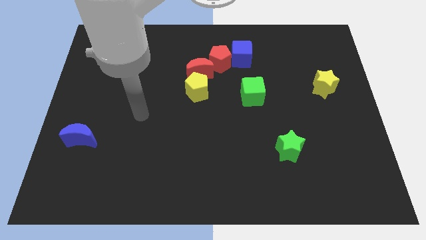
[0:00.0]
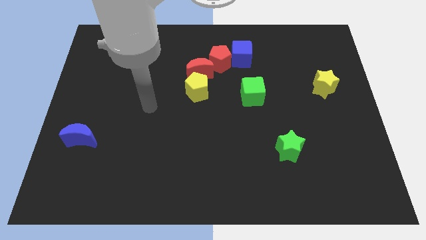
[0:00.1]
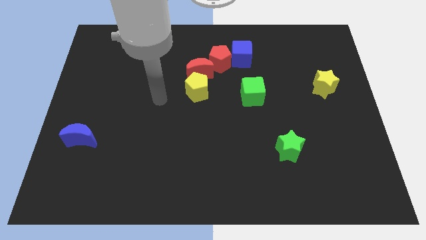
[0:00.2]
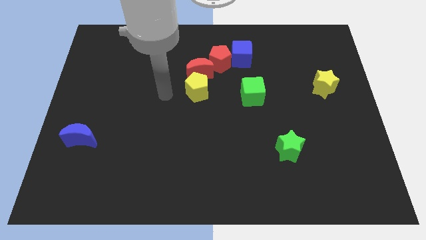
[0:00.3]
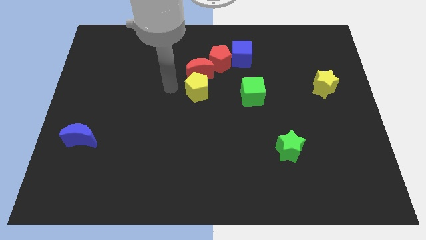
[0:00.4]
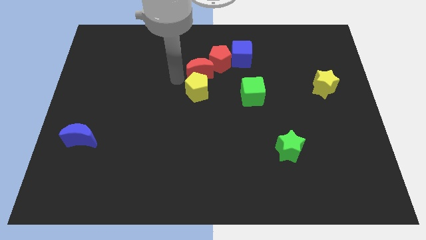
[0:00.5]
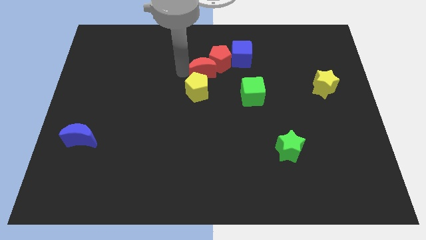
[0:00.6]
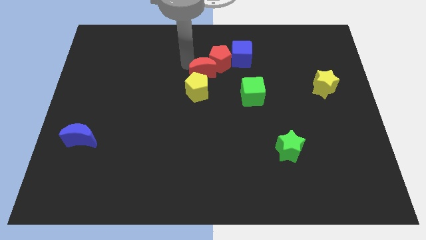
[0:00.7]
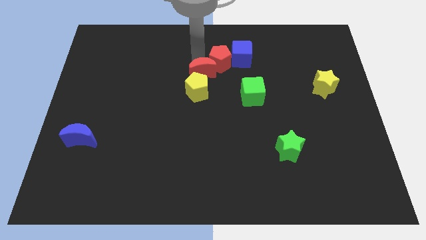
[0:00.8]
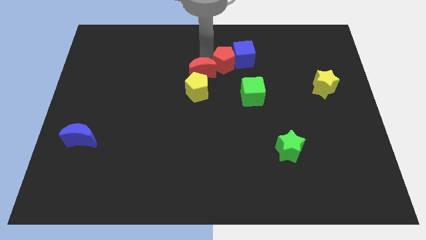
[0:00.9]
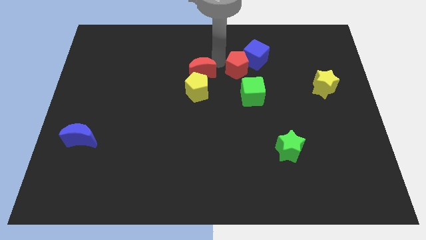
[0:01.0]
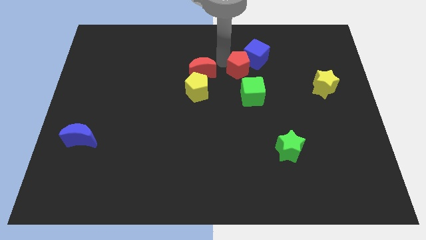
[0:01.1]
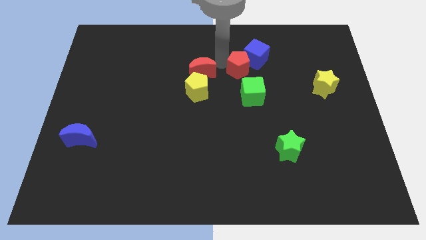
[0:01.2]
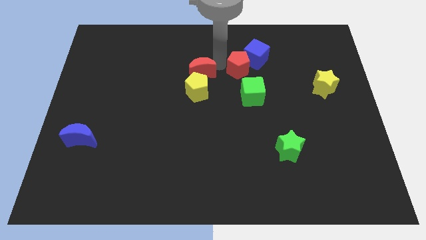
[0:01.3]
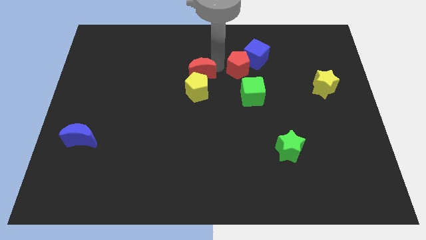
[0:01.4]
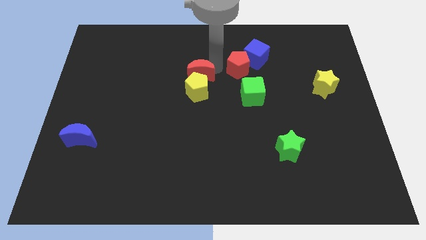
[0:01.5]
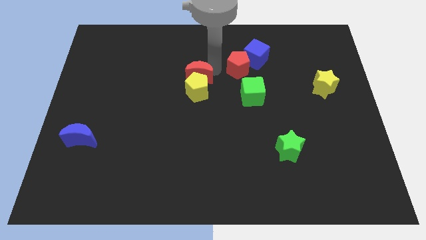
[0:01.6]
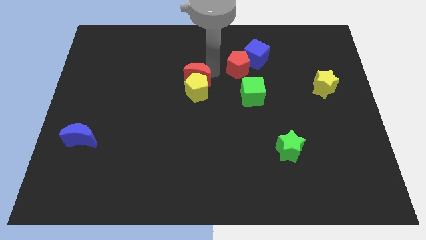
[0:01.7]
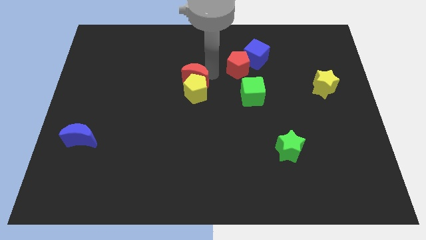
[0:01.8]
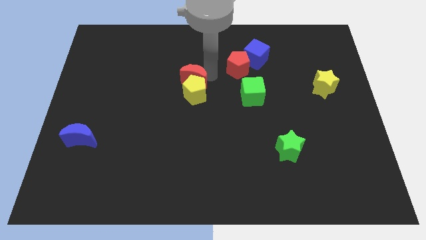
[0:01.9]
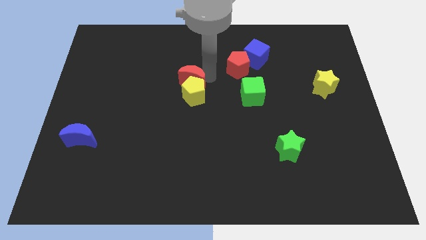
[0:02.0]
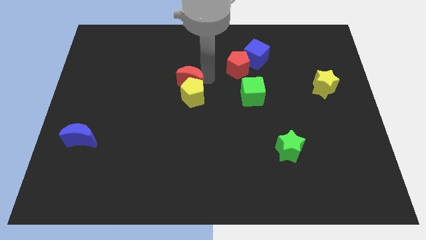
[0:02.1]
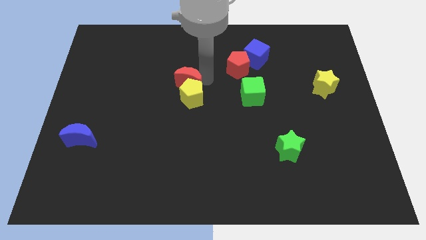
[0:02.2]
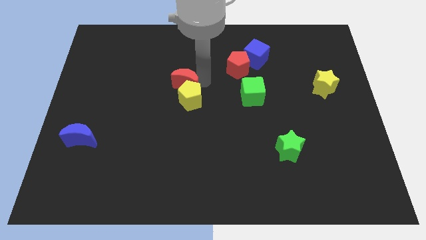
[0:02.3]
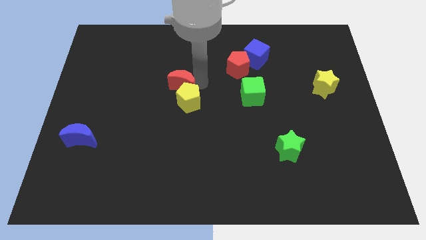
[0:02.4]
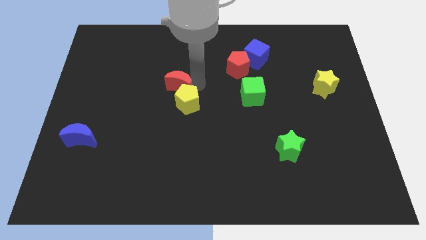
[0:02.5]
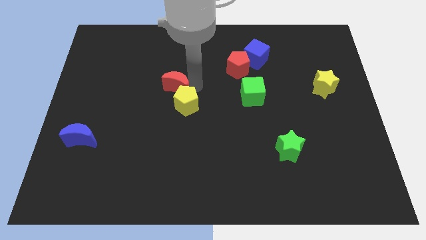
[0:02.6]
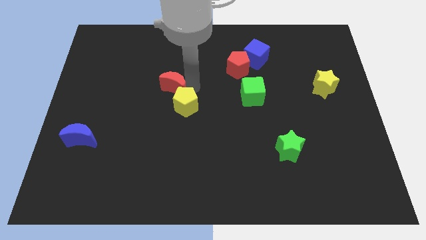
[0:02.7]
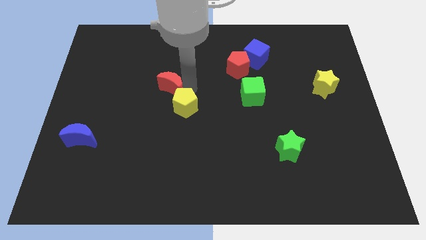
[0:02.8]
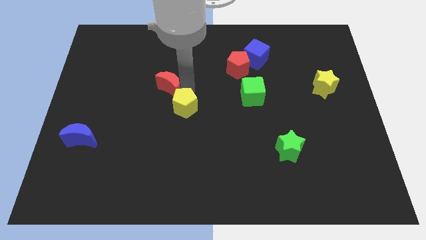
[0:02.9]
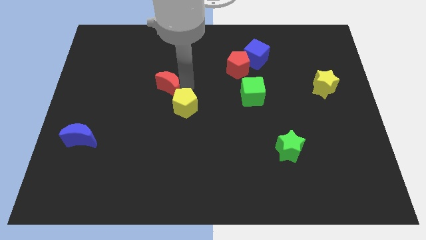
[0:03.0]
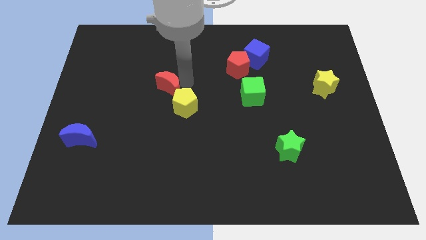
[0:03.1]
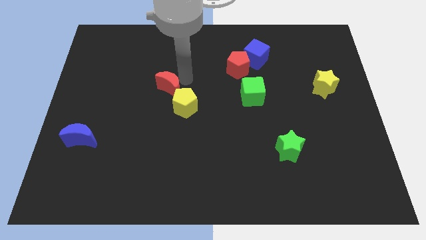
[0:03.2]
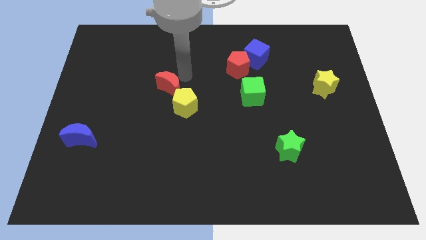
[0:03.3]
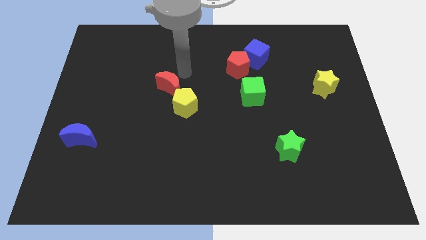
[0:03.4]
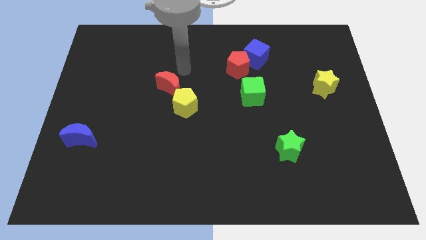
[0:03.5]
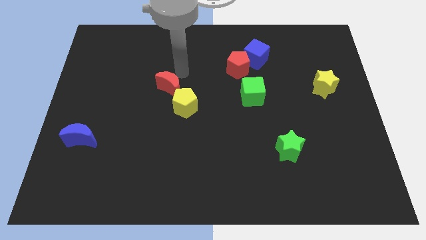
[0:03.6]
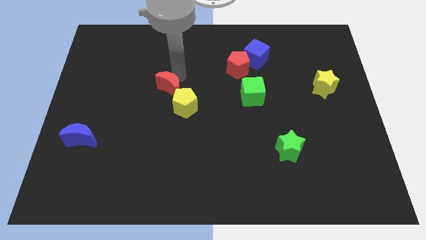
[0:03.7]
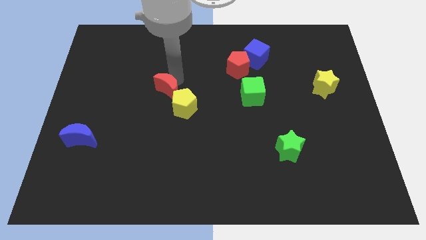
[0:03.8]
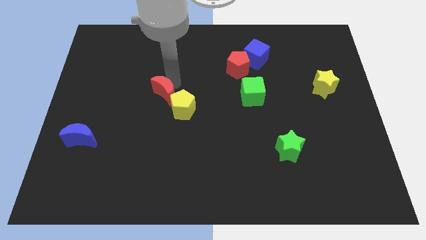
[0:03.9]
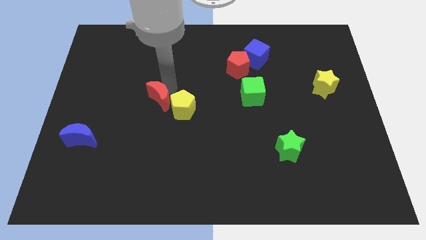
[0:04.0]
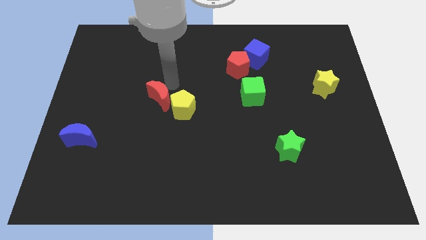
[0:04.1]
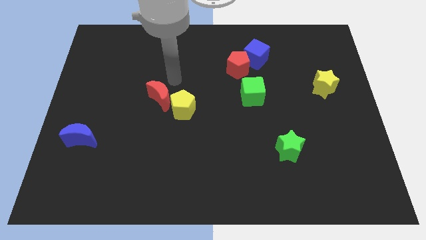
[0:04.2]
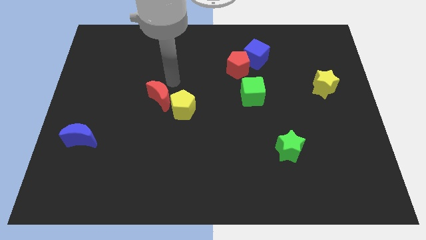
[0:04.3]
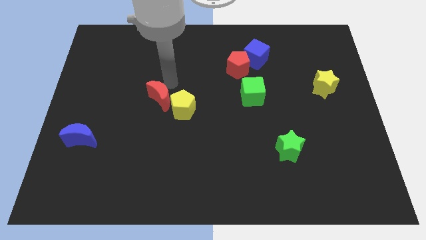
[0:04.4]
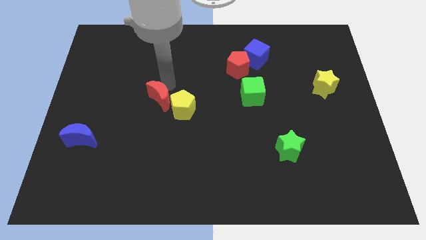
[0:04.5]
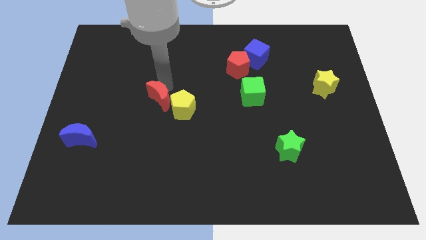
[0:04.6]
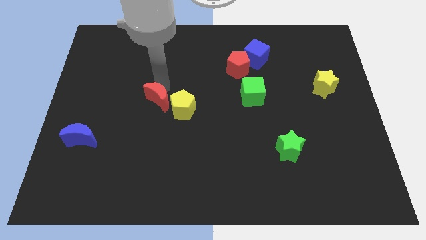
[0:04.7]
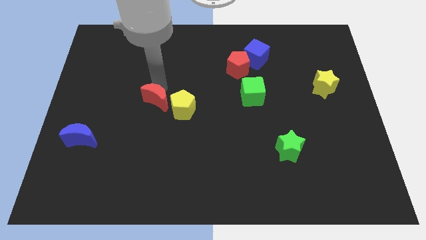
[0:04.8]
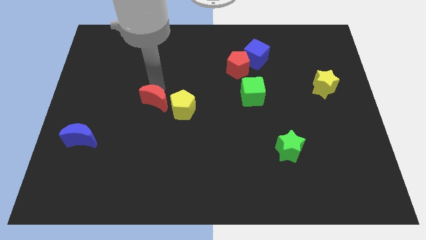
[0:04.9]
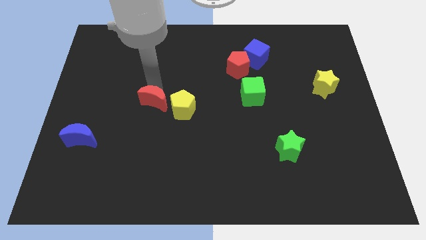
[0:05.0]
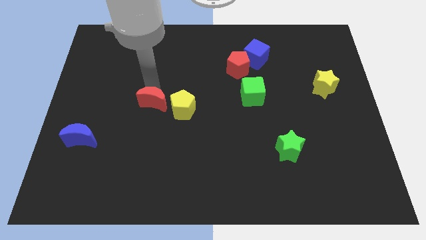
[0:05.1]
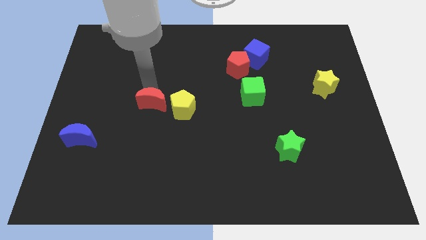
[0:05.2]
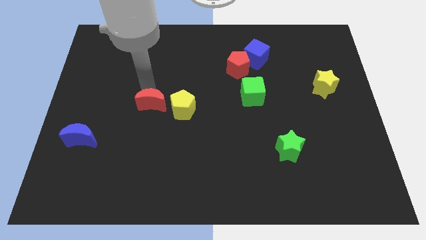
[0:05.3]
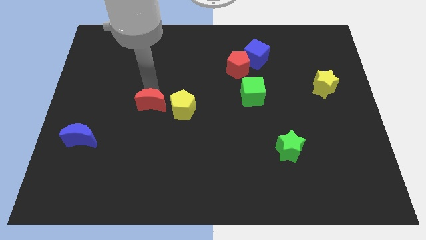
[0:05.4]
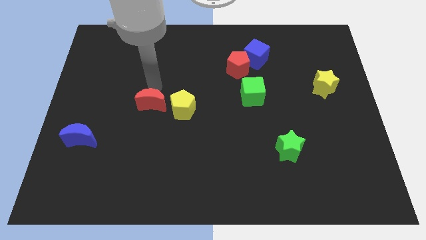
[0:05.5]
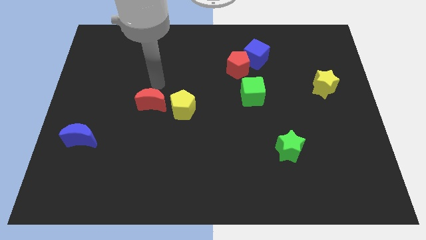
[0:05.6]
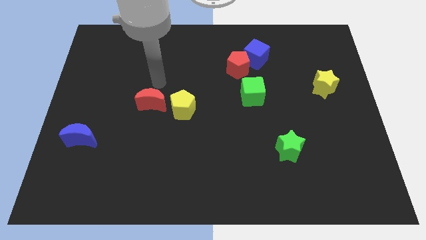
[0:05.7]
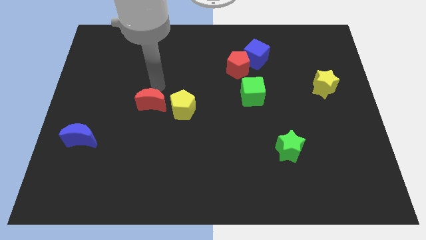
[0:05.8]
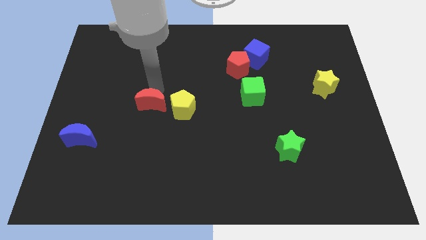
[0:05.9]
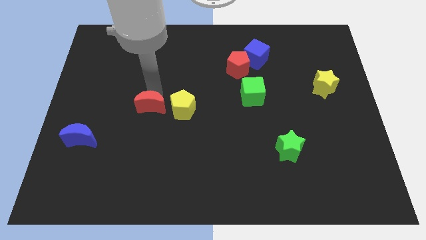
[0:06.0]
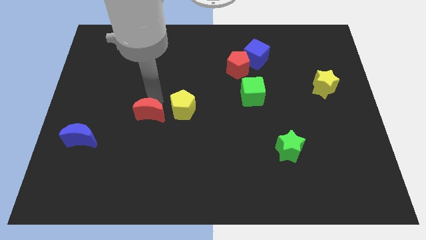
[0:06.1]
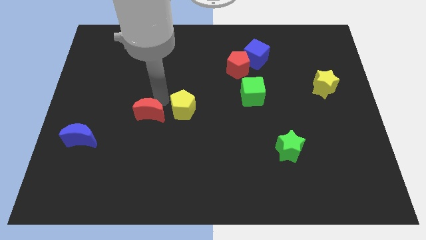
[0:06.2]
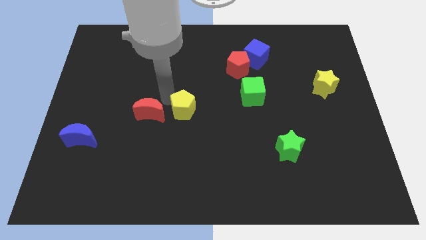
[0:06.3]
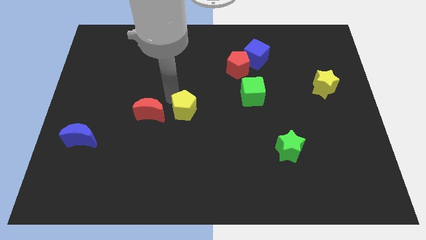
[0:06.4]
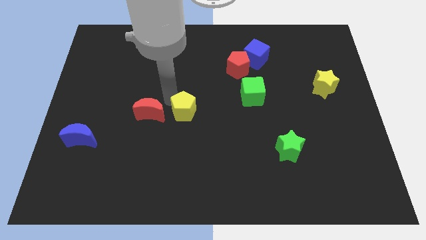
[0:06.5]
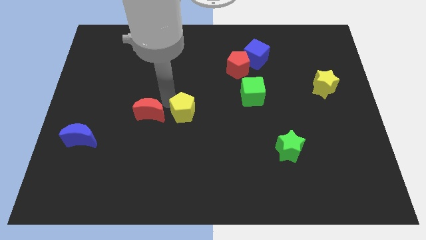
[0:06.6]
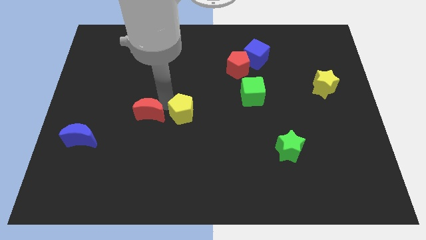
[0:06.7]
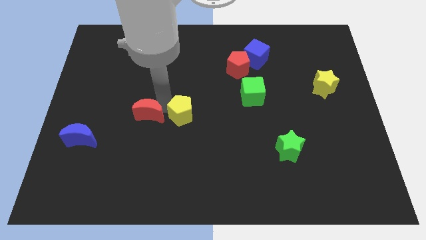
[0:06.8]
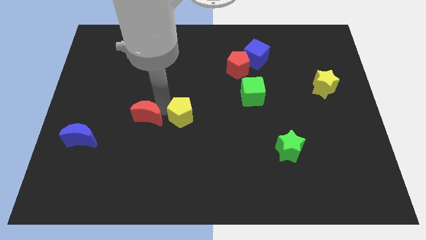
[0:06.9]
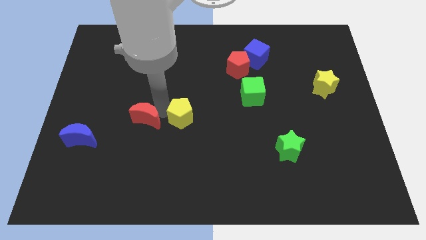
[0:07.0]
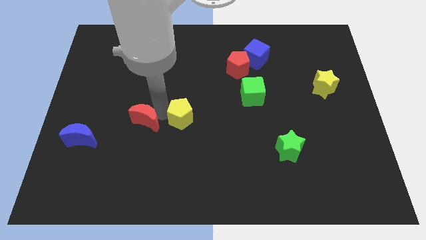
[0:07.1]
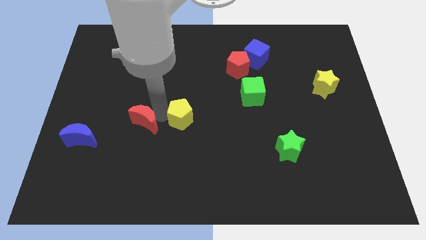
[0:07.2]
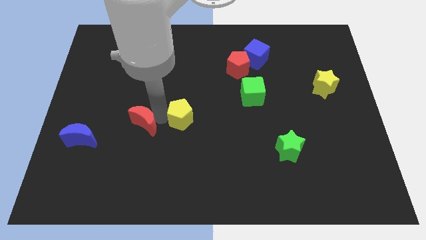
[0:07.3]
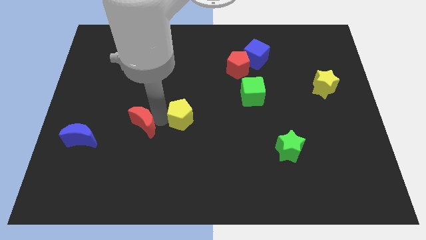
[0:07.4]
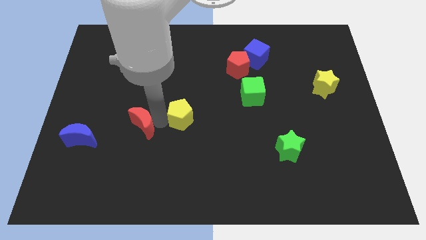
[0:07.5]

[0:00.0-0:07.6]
move the red moon diagonally downwards and left
